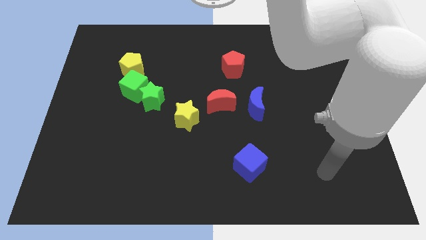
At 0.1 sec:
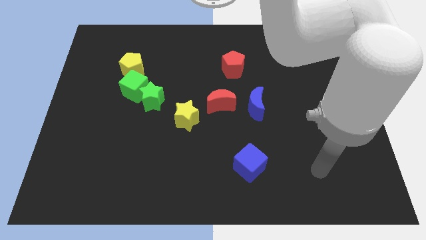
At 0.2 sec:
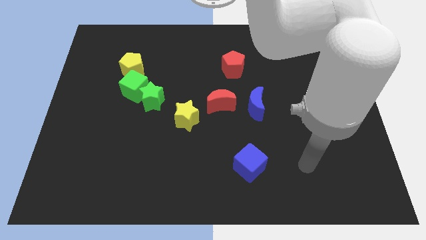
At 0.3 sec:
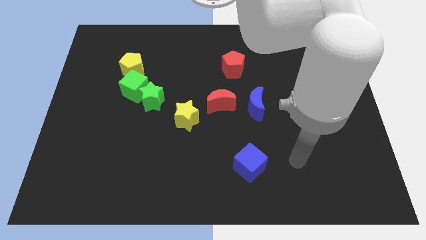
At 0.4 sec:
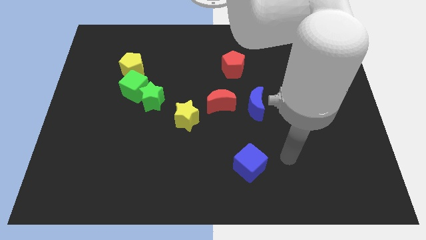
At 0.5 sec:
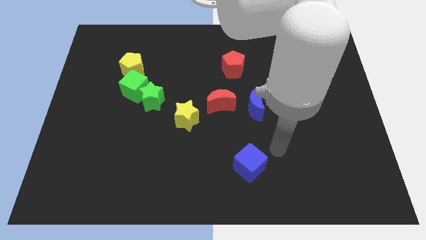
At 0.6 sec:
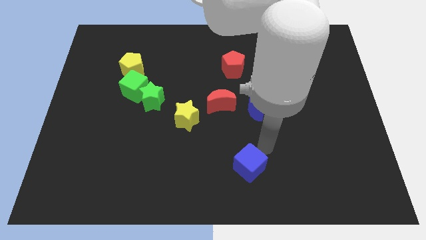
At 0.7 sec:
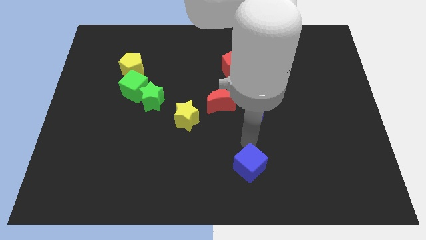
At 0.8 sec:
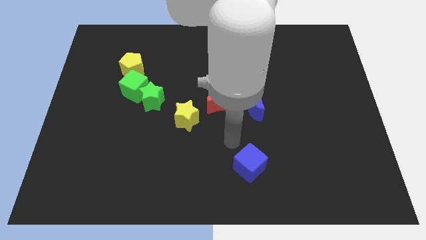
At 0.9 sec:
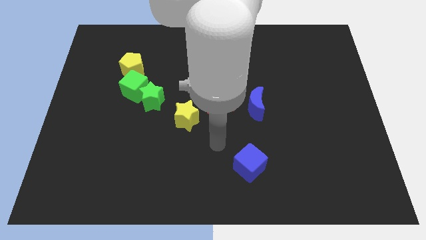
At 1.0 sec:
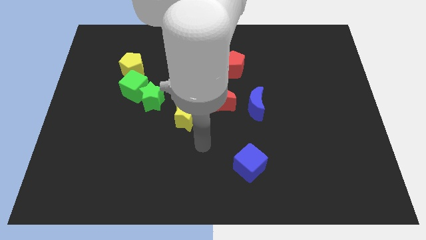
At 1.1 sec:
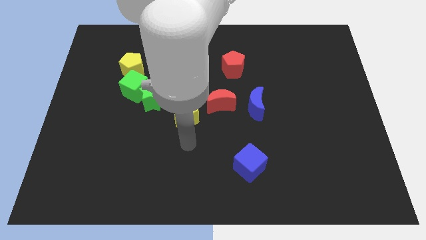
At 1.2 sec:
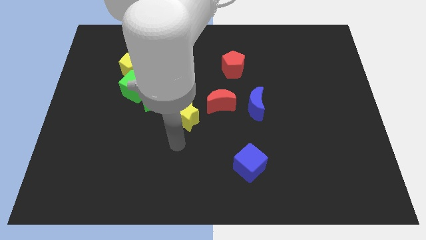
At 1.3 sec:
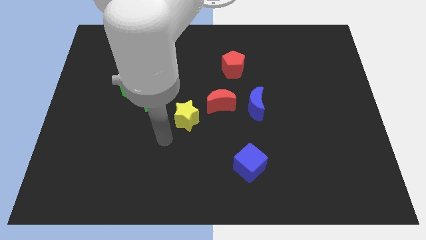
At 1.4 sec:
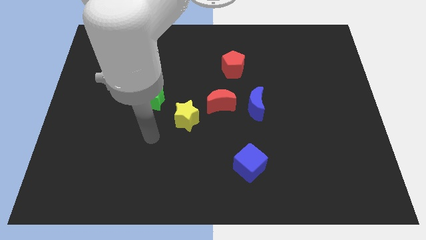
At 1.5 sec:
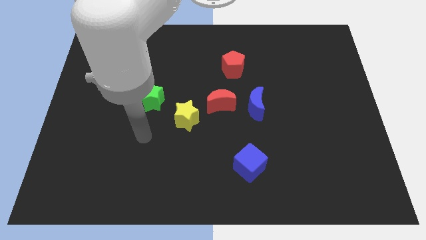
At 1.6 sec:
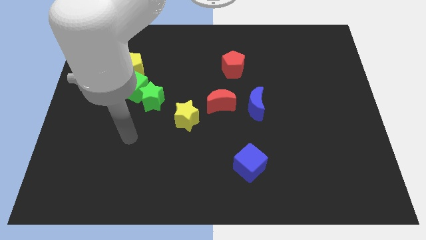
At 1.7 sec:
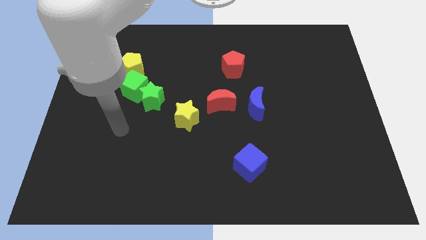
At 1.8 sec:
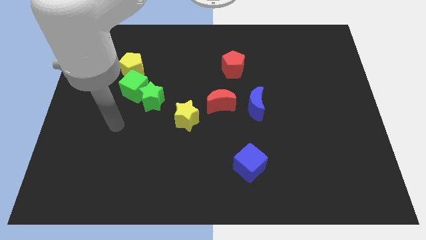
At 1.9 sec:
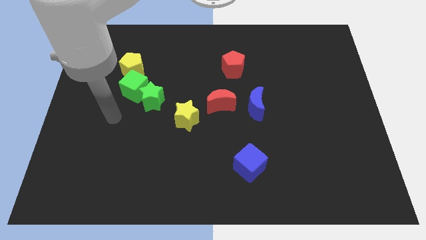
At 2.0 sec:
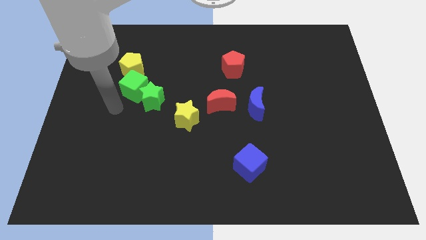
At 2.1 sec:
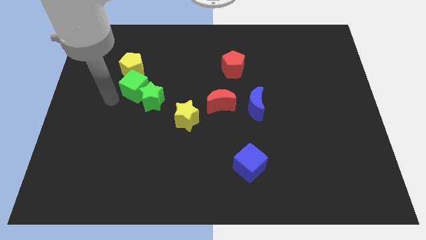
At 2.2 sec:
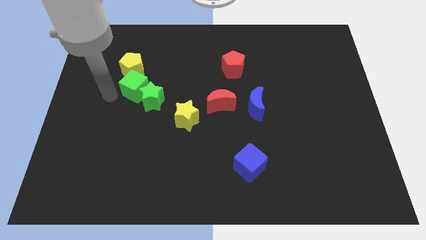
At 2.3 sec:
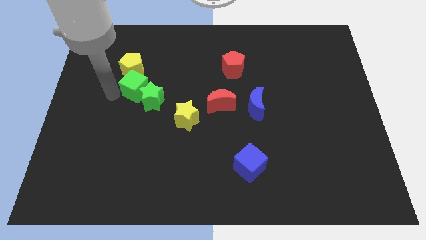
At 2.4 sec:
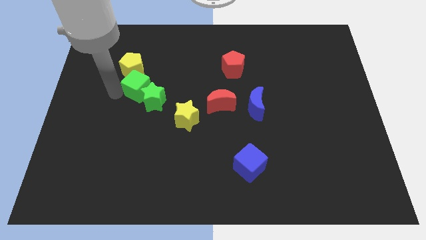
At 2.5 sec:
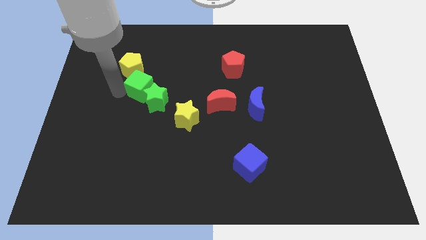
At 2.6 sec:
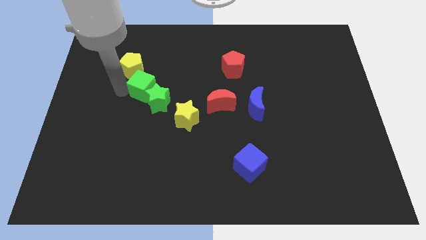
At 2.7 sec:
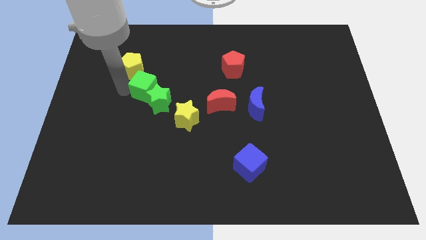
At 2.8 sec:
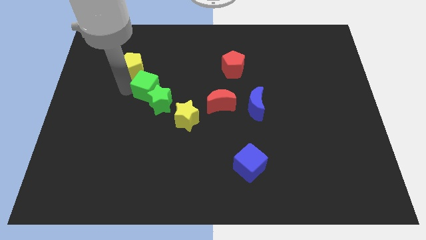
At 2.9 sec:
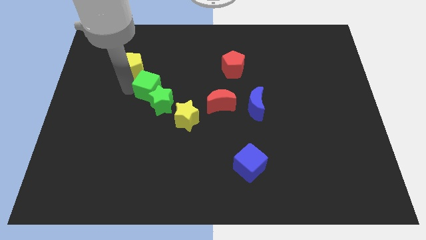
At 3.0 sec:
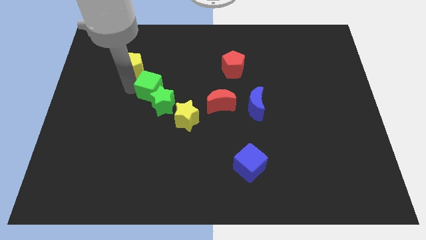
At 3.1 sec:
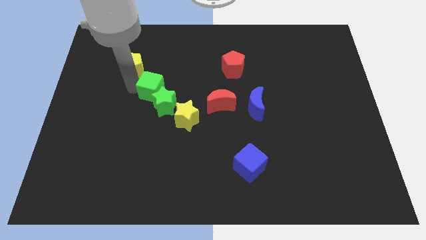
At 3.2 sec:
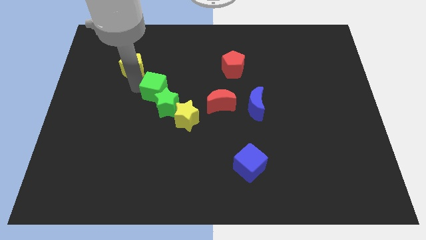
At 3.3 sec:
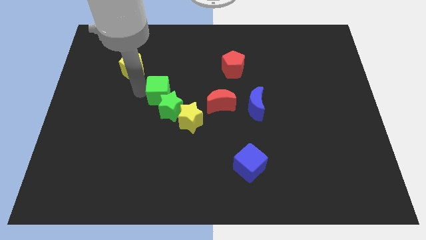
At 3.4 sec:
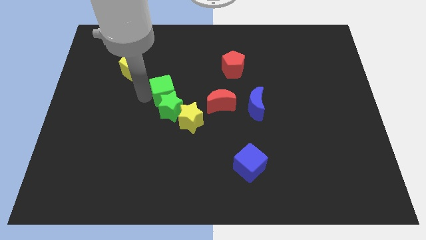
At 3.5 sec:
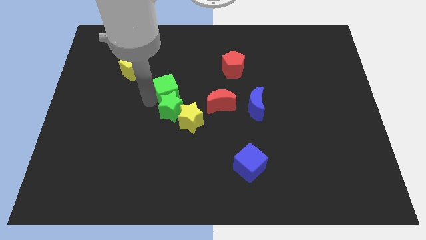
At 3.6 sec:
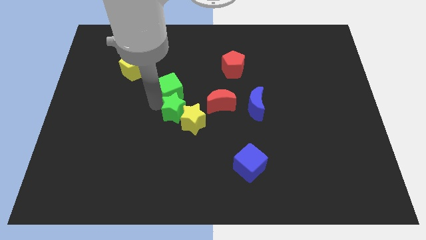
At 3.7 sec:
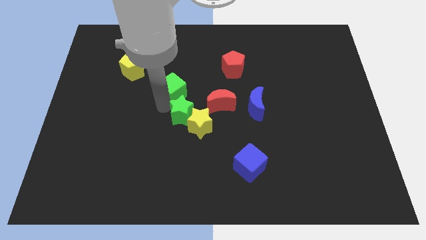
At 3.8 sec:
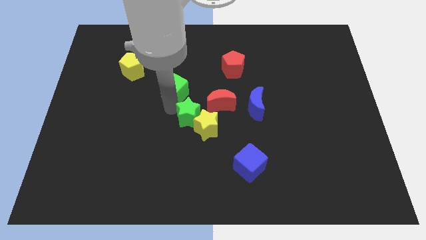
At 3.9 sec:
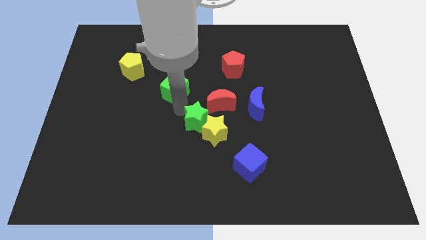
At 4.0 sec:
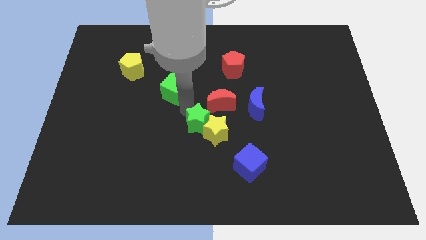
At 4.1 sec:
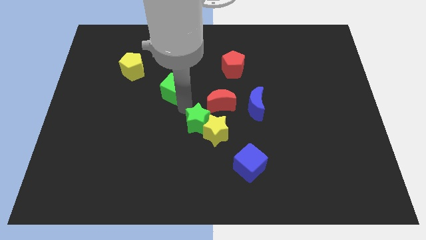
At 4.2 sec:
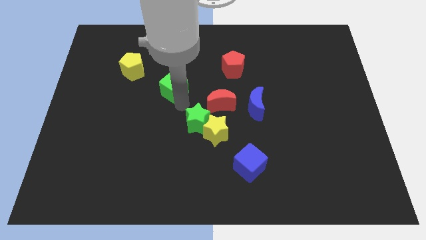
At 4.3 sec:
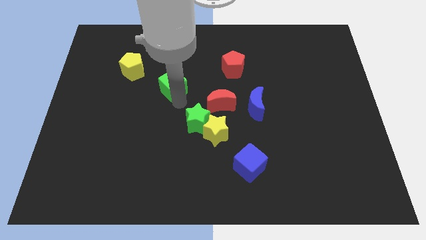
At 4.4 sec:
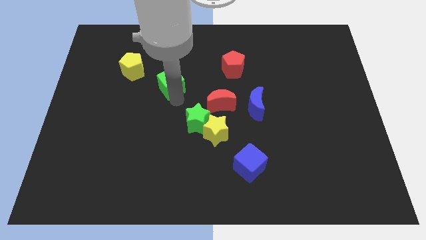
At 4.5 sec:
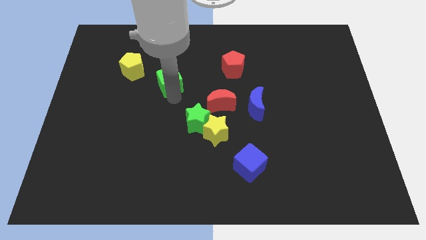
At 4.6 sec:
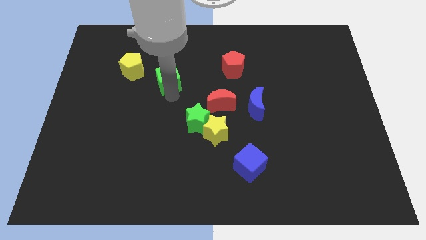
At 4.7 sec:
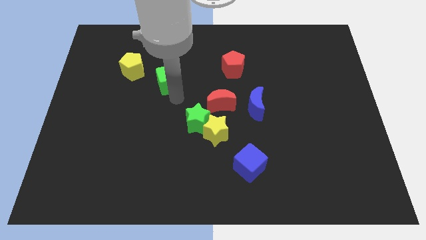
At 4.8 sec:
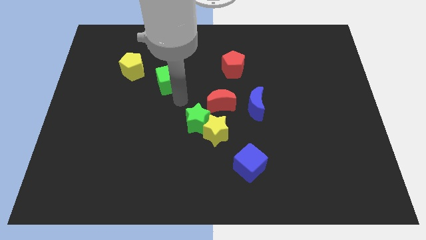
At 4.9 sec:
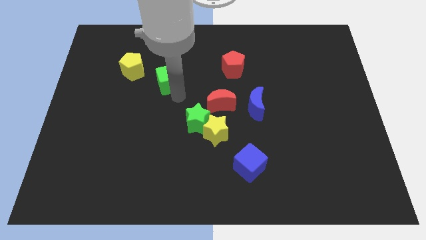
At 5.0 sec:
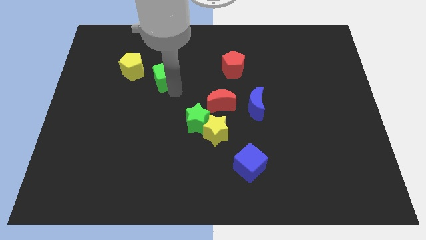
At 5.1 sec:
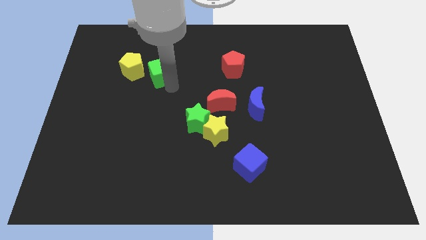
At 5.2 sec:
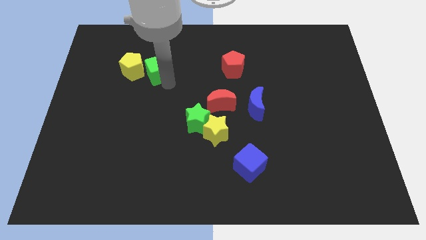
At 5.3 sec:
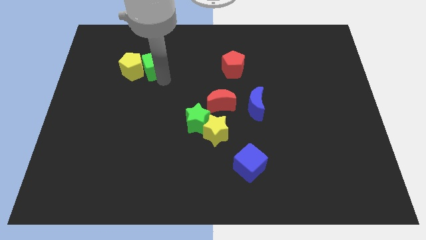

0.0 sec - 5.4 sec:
put the green cube diagonally up and to the right of the yellow pentagon
